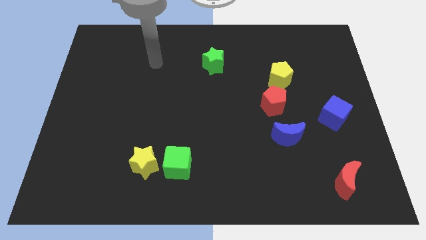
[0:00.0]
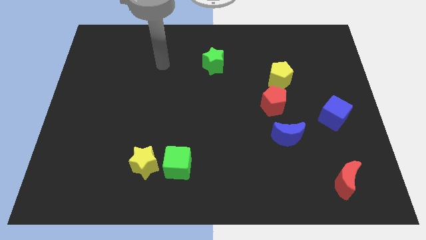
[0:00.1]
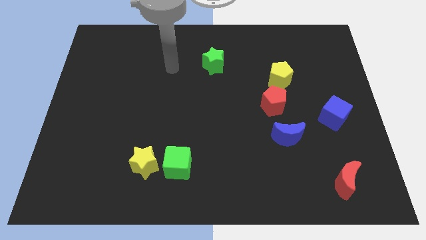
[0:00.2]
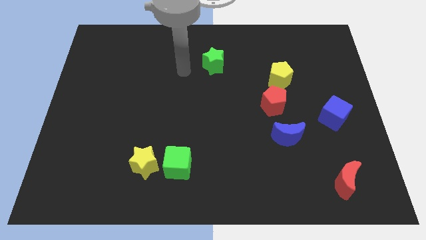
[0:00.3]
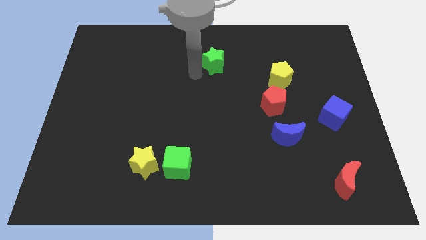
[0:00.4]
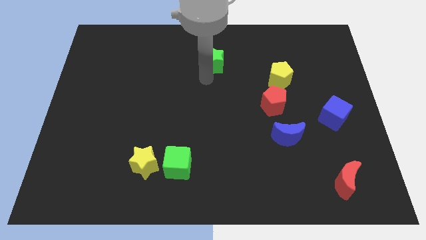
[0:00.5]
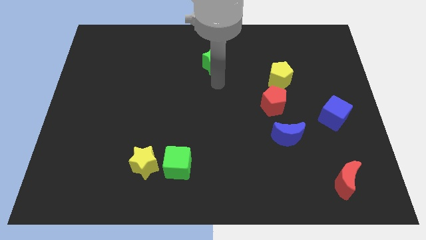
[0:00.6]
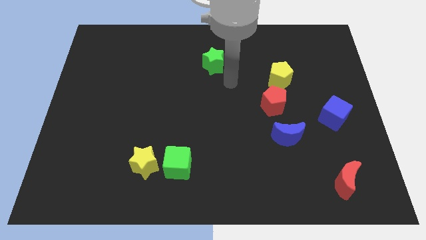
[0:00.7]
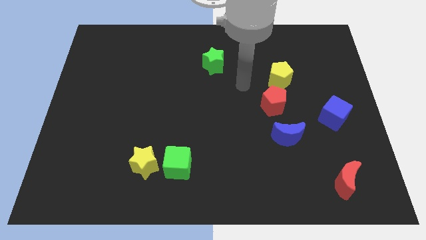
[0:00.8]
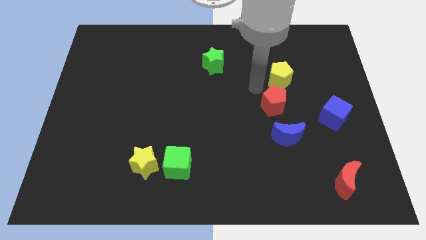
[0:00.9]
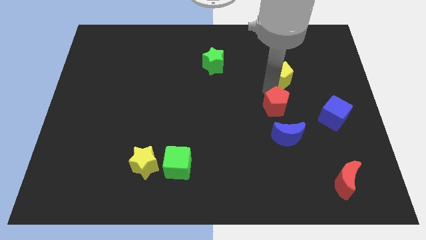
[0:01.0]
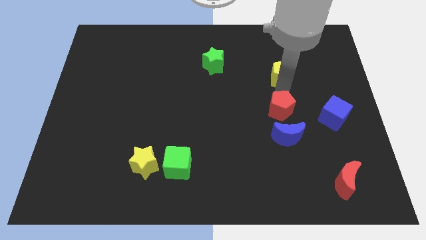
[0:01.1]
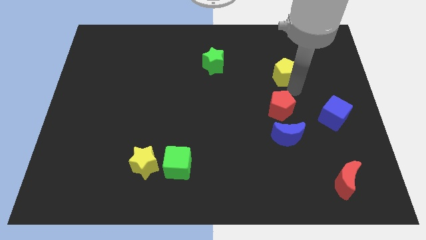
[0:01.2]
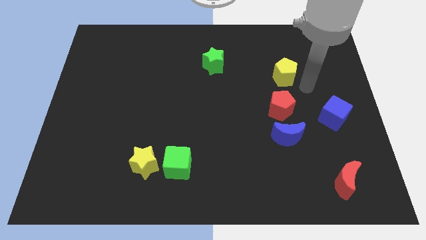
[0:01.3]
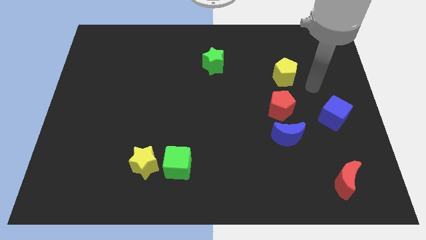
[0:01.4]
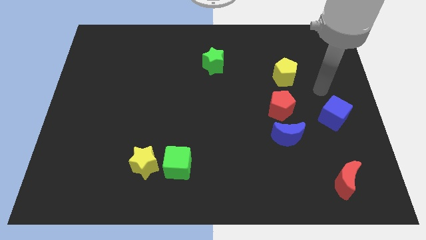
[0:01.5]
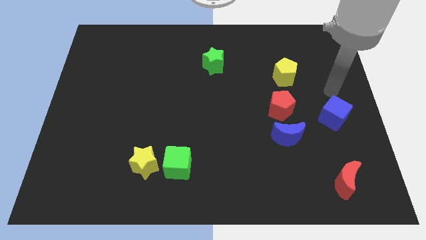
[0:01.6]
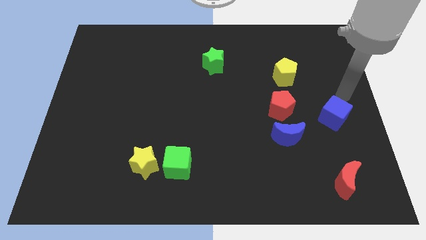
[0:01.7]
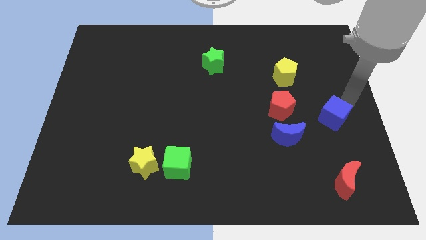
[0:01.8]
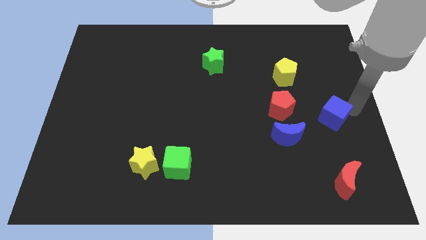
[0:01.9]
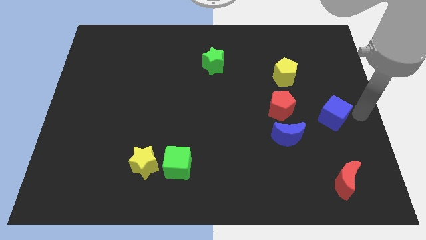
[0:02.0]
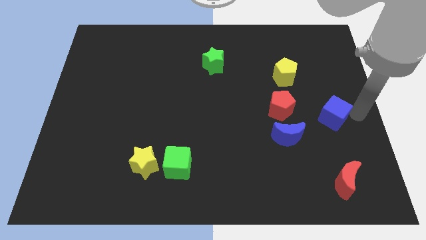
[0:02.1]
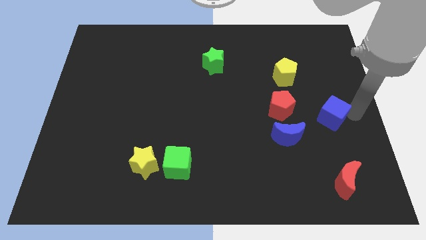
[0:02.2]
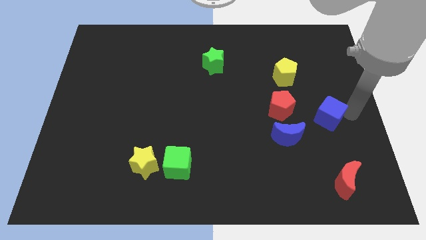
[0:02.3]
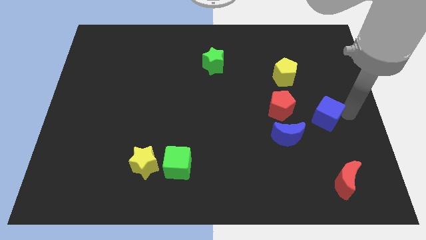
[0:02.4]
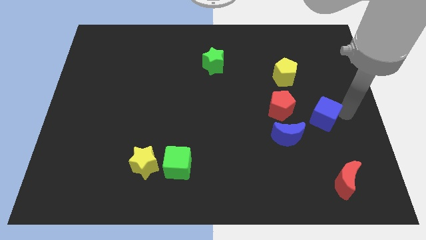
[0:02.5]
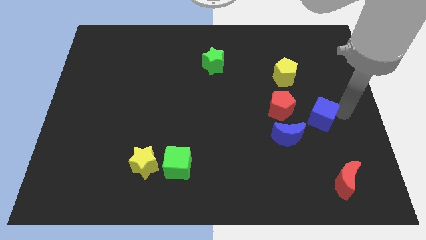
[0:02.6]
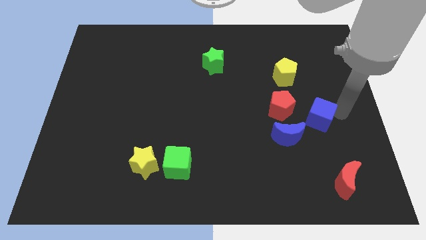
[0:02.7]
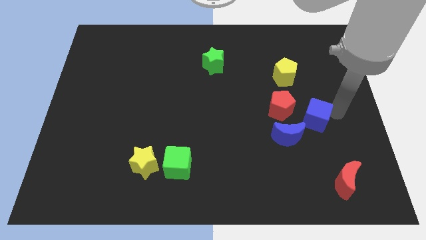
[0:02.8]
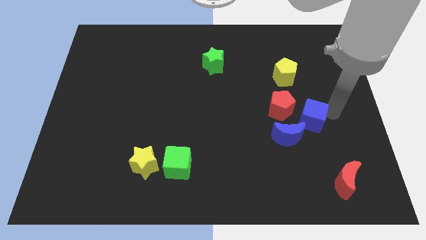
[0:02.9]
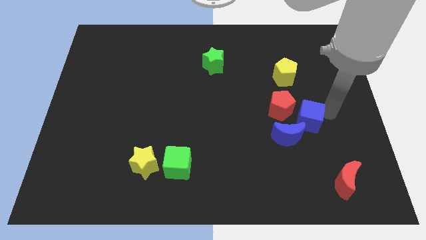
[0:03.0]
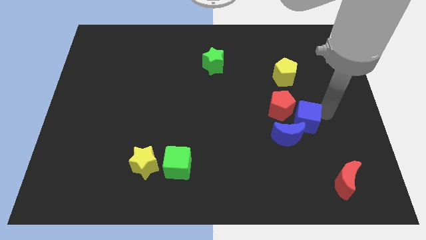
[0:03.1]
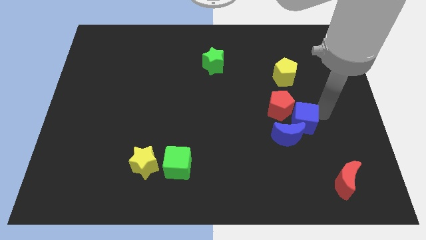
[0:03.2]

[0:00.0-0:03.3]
push the blue cube to the left somewhat

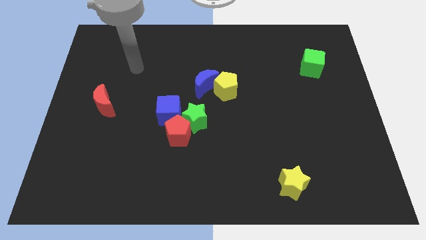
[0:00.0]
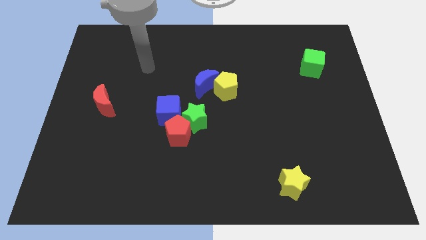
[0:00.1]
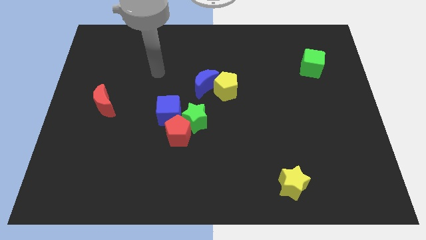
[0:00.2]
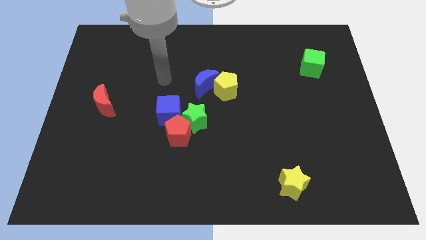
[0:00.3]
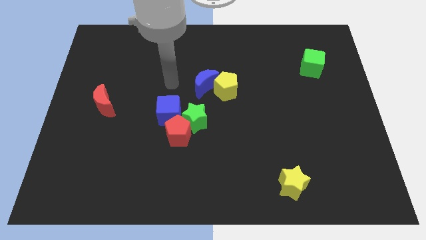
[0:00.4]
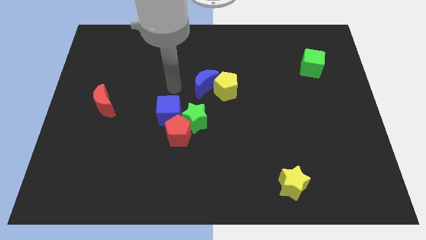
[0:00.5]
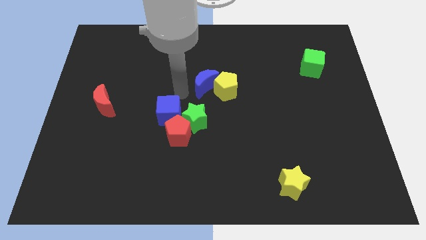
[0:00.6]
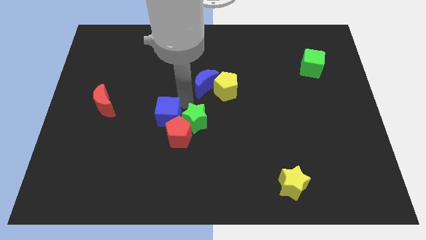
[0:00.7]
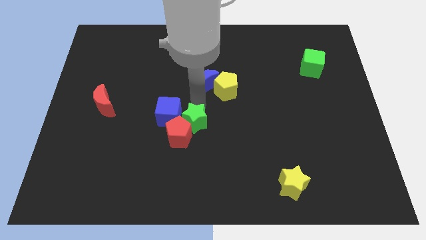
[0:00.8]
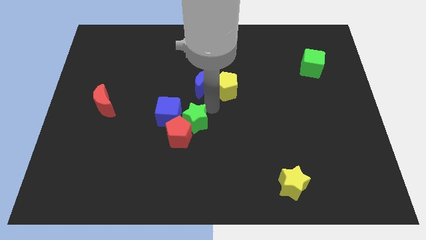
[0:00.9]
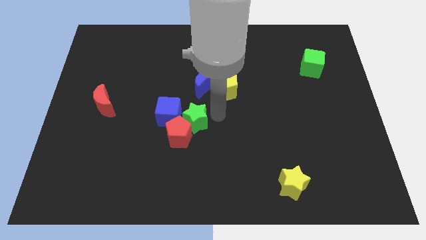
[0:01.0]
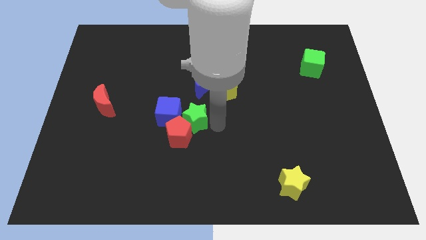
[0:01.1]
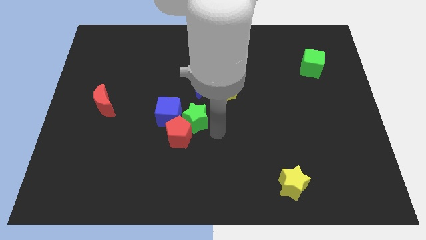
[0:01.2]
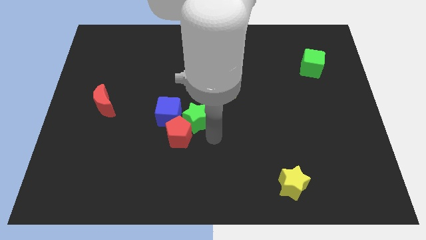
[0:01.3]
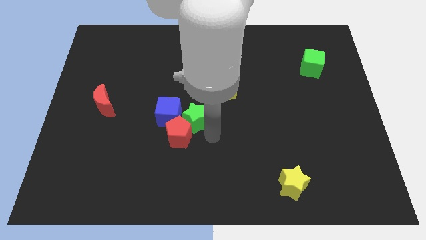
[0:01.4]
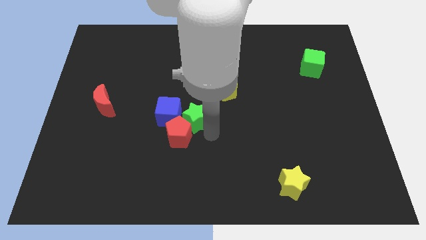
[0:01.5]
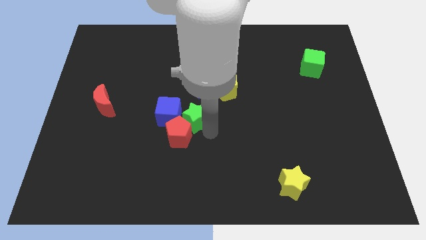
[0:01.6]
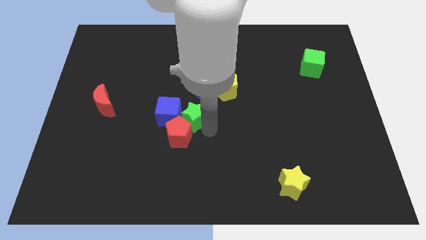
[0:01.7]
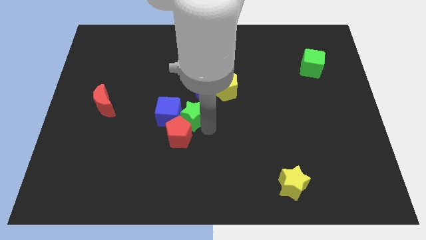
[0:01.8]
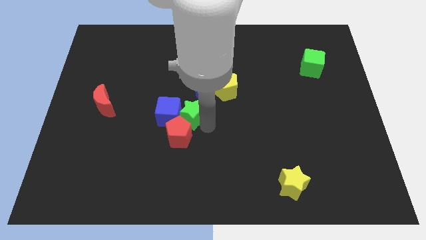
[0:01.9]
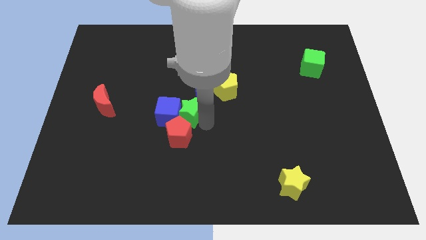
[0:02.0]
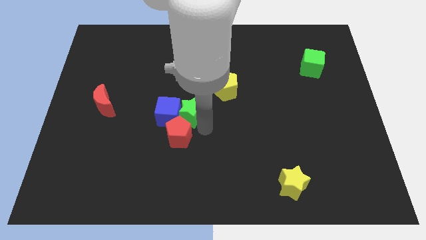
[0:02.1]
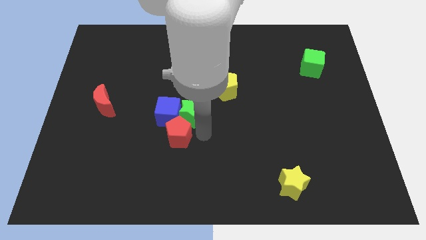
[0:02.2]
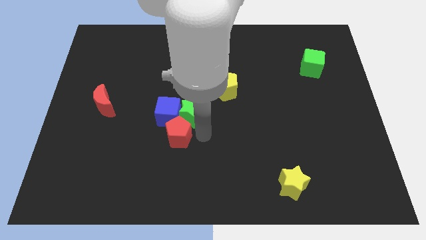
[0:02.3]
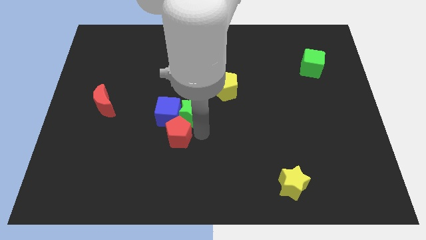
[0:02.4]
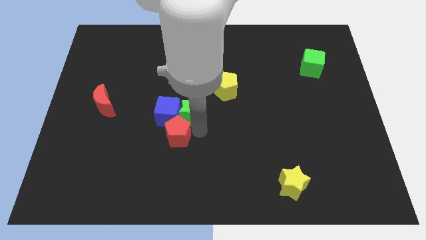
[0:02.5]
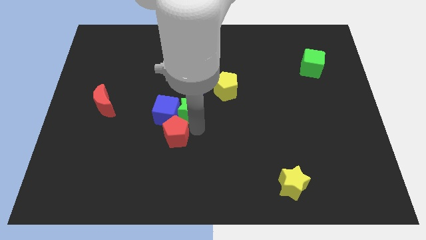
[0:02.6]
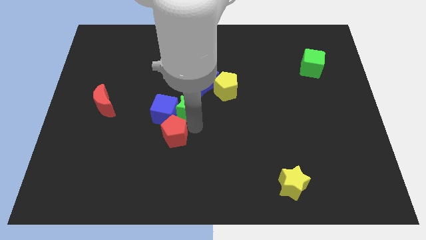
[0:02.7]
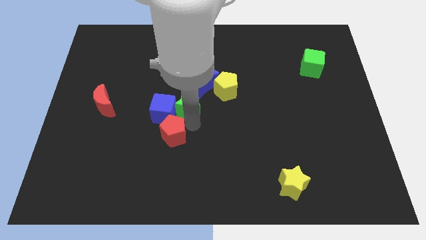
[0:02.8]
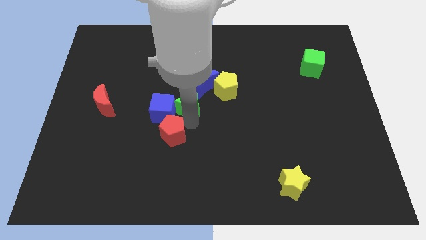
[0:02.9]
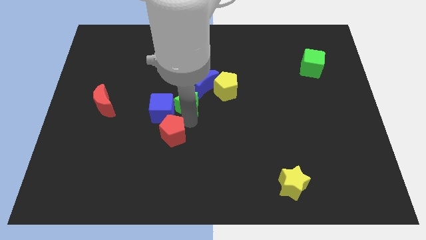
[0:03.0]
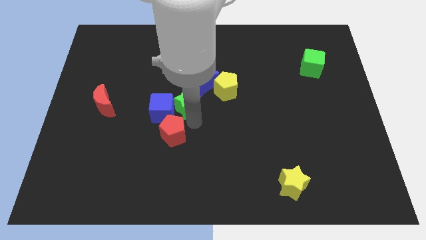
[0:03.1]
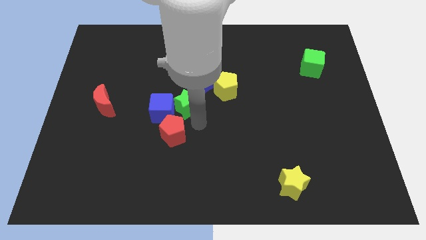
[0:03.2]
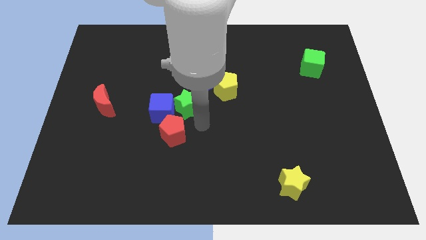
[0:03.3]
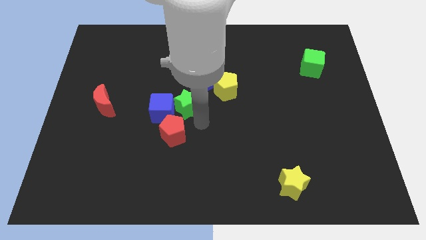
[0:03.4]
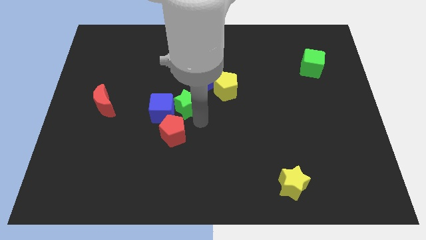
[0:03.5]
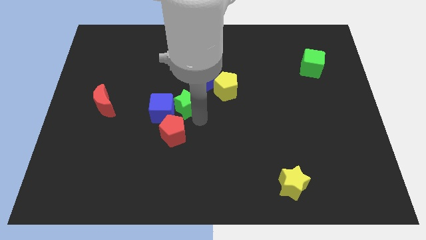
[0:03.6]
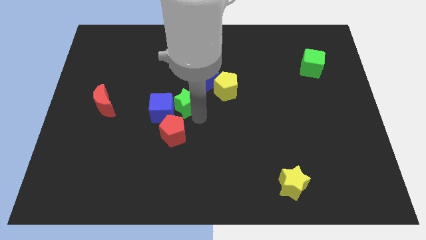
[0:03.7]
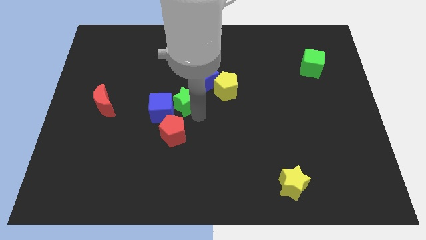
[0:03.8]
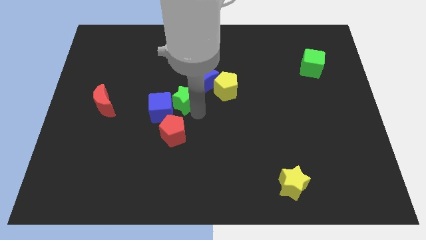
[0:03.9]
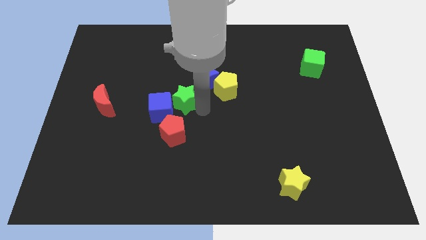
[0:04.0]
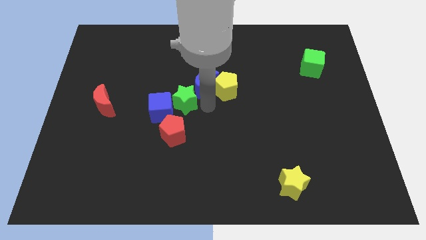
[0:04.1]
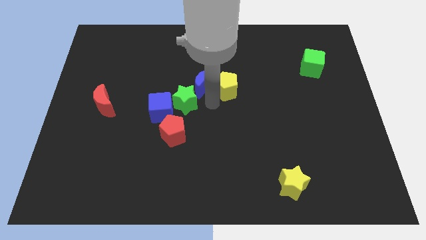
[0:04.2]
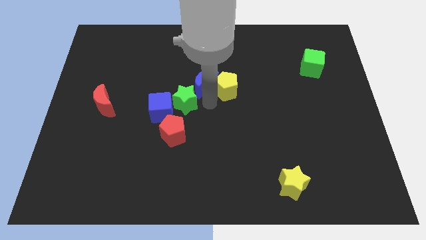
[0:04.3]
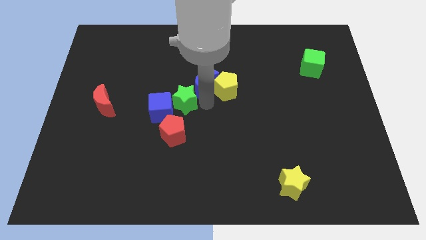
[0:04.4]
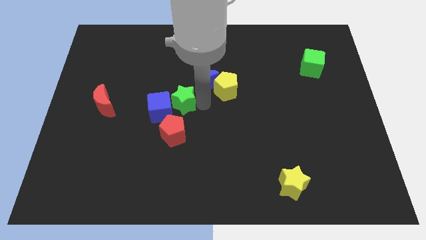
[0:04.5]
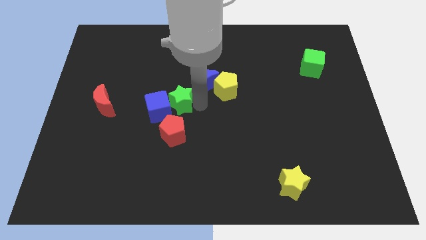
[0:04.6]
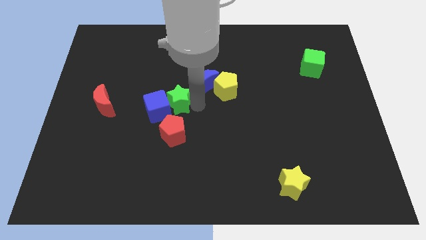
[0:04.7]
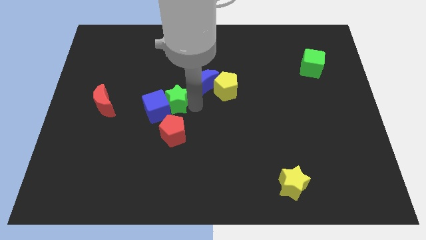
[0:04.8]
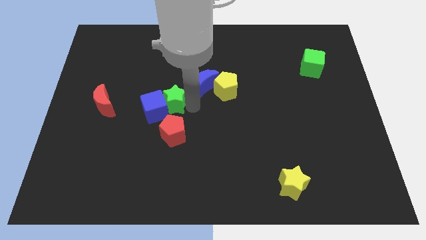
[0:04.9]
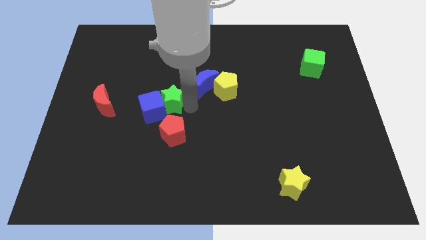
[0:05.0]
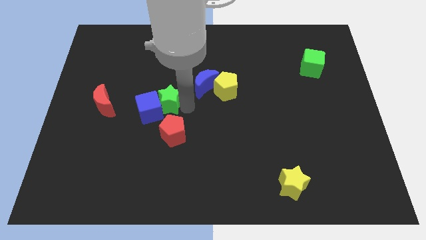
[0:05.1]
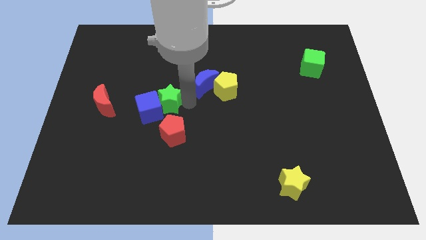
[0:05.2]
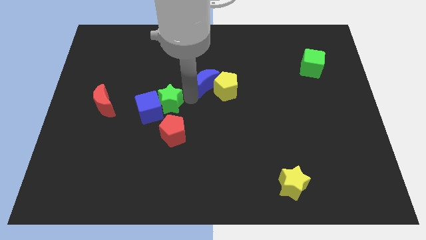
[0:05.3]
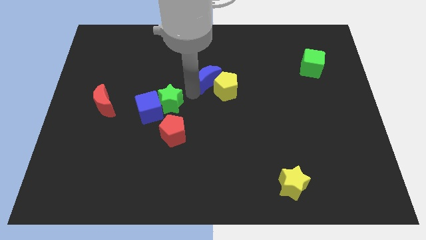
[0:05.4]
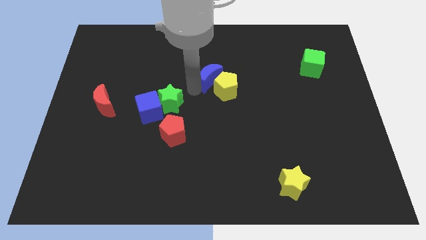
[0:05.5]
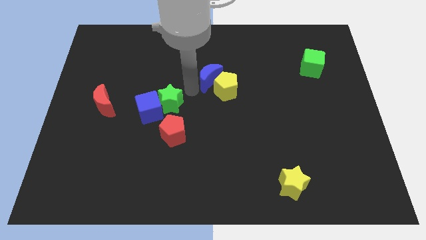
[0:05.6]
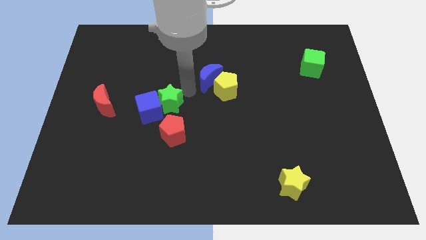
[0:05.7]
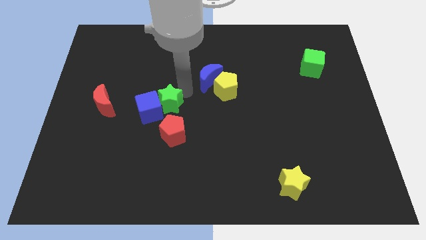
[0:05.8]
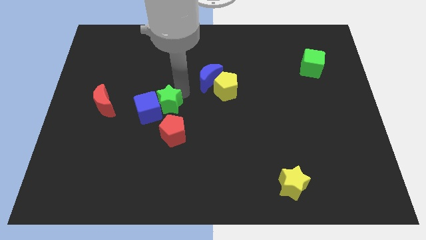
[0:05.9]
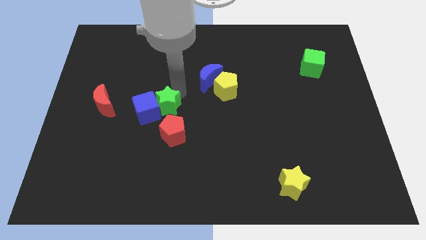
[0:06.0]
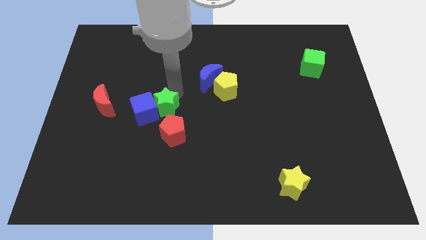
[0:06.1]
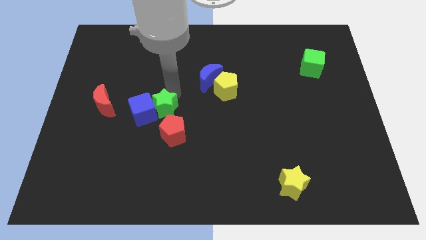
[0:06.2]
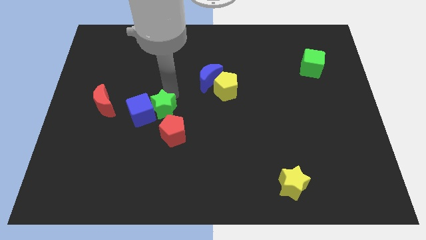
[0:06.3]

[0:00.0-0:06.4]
slightly slide the green star to the left
